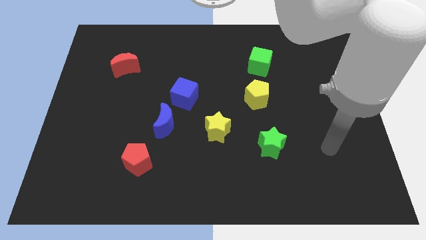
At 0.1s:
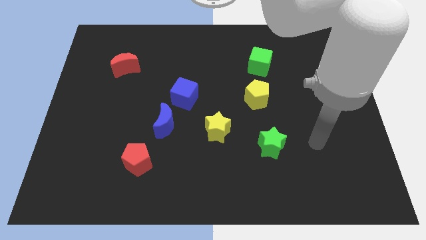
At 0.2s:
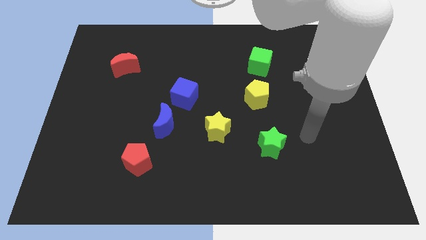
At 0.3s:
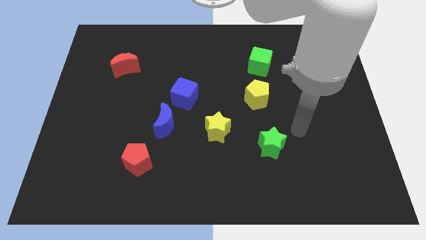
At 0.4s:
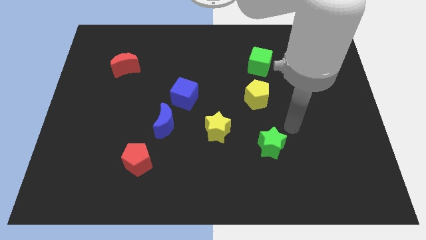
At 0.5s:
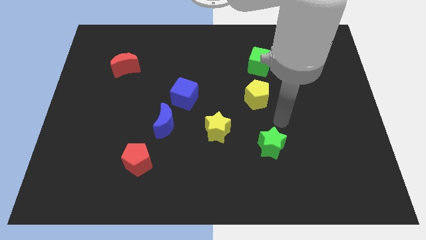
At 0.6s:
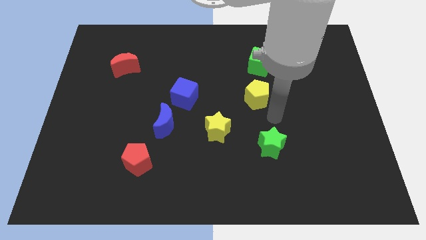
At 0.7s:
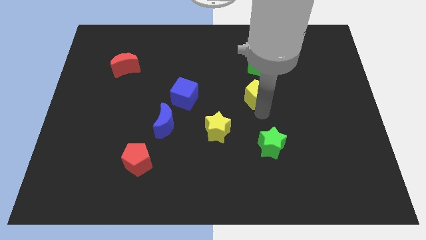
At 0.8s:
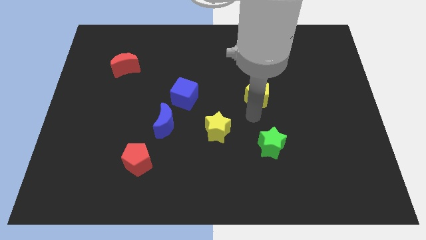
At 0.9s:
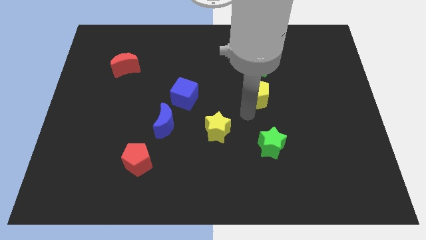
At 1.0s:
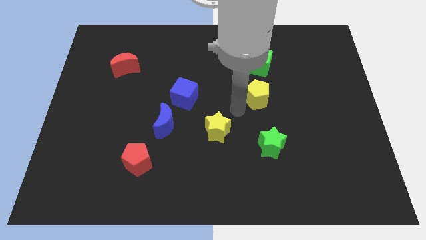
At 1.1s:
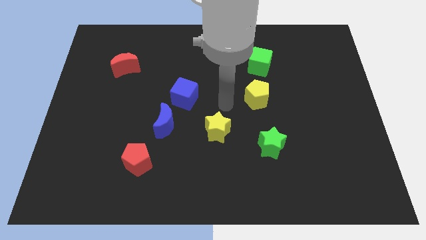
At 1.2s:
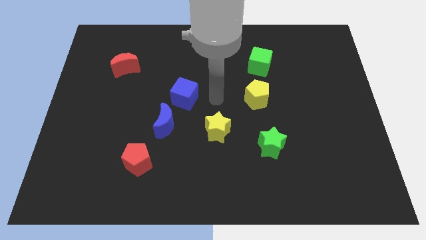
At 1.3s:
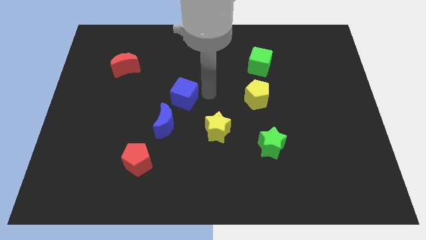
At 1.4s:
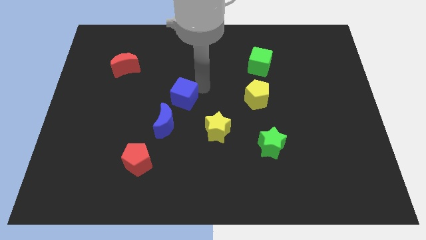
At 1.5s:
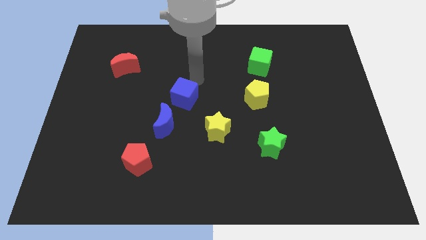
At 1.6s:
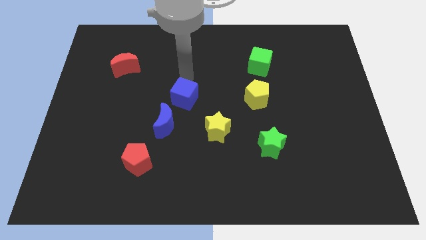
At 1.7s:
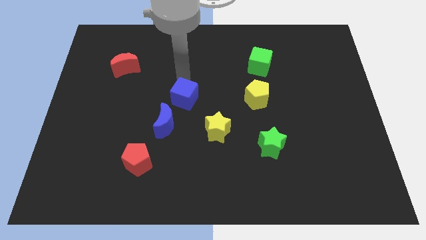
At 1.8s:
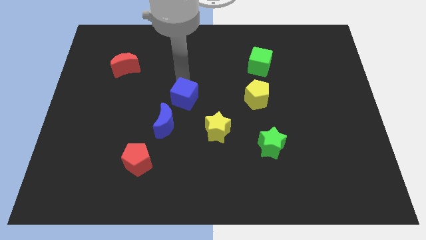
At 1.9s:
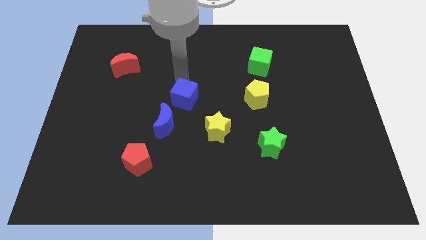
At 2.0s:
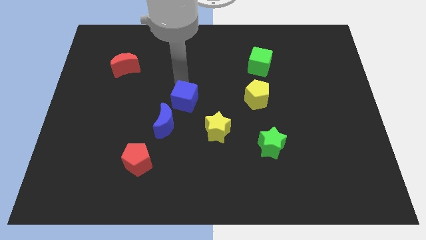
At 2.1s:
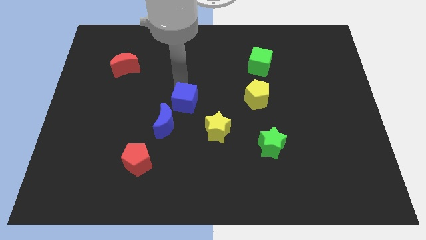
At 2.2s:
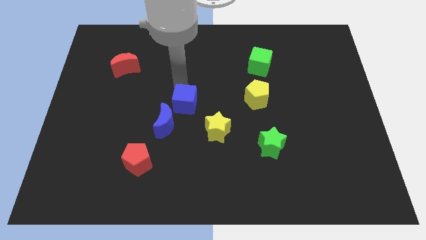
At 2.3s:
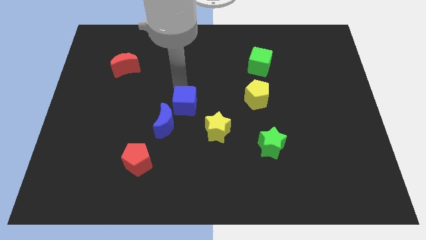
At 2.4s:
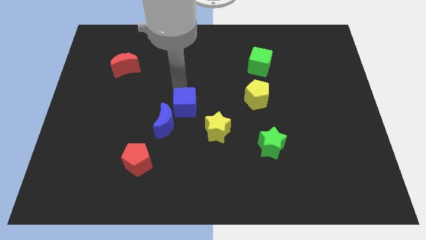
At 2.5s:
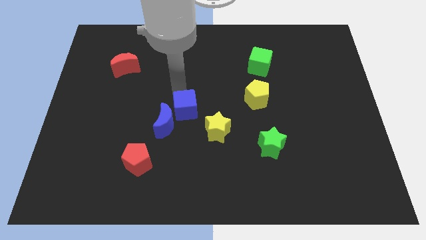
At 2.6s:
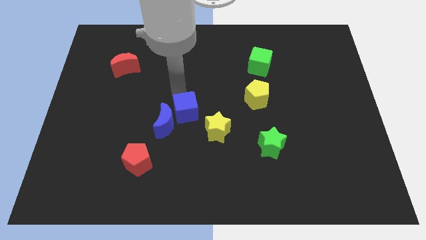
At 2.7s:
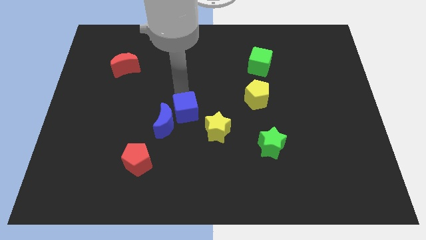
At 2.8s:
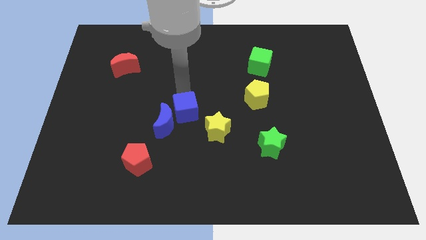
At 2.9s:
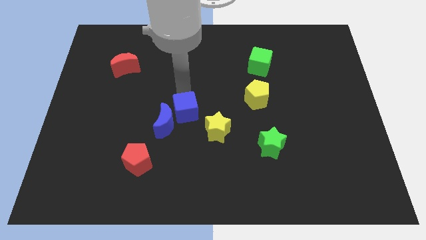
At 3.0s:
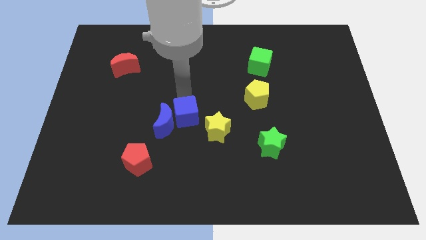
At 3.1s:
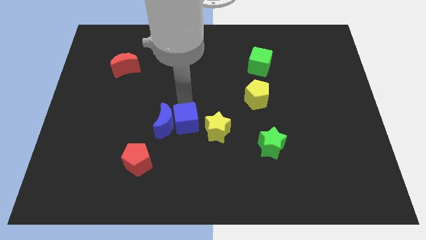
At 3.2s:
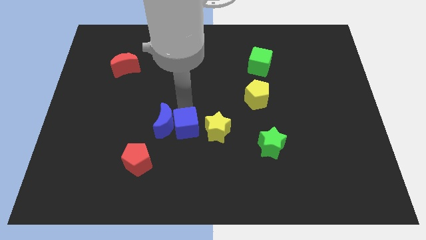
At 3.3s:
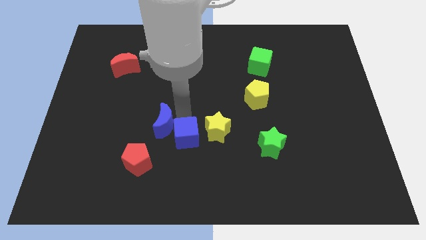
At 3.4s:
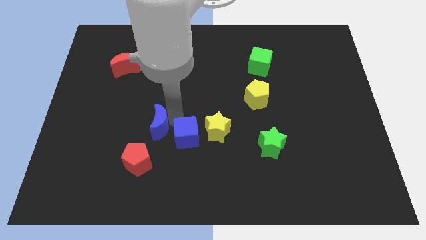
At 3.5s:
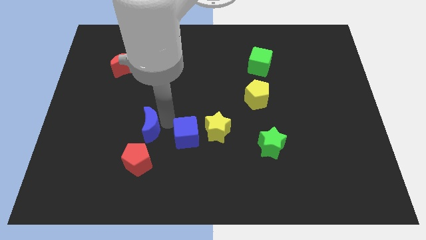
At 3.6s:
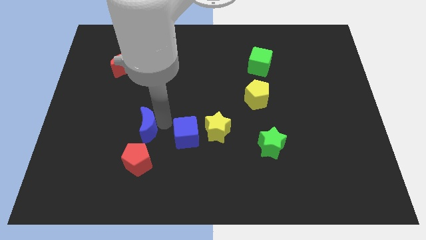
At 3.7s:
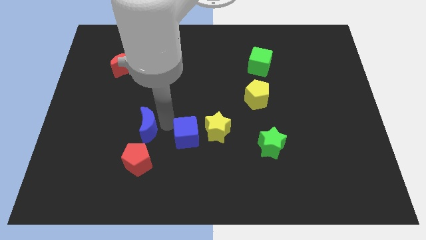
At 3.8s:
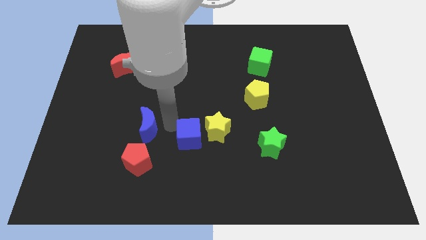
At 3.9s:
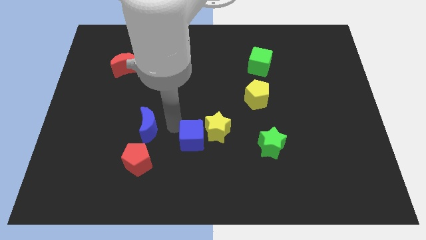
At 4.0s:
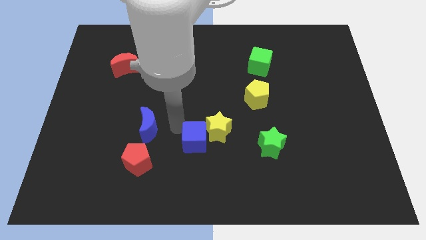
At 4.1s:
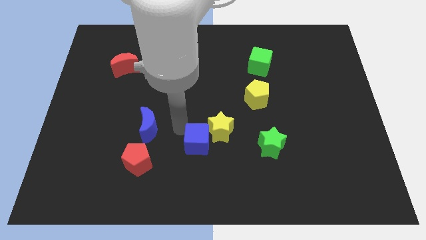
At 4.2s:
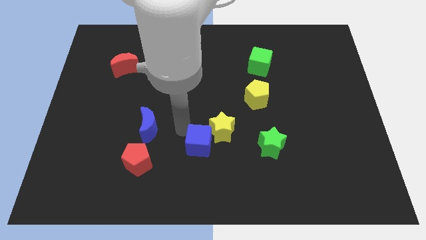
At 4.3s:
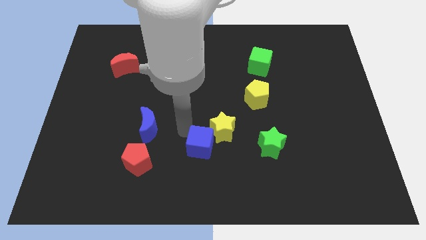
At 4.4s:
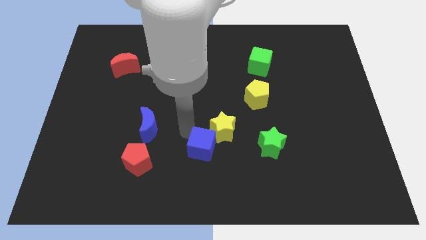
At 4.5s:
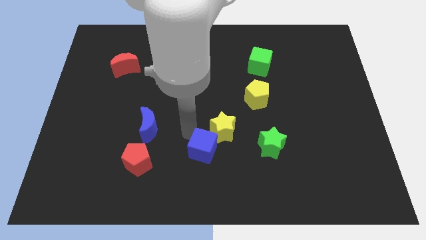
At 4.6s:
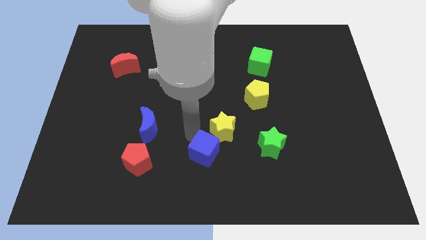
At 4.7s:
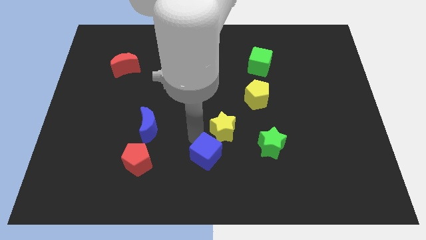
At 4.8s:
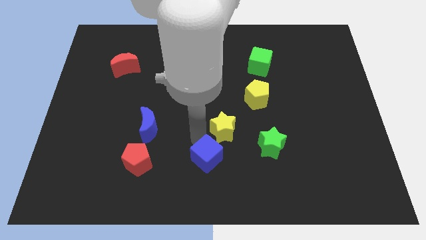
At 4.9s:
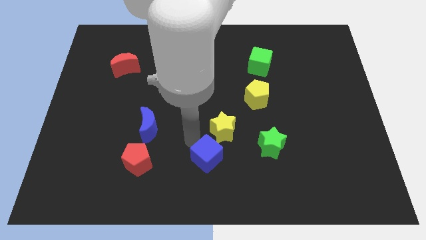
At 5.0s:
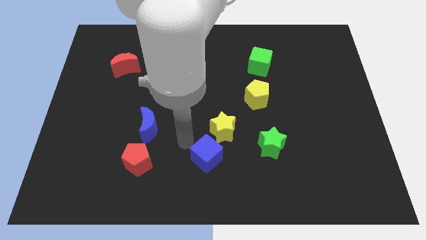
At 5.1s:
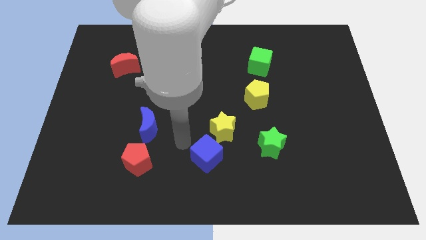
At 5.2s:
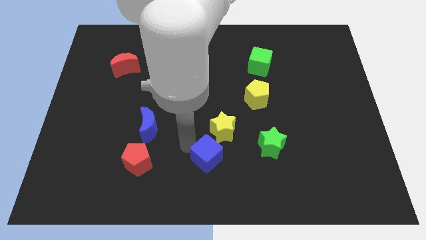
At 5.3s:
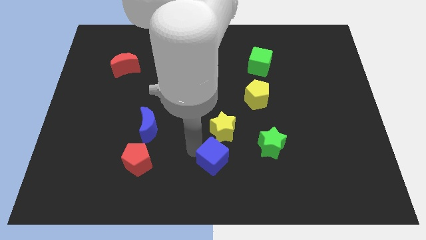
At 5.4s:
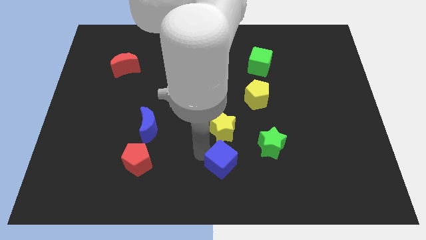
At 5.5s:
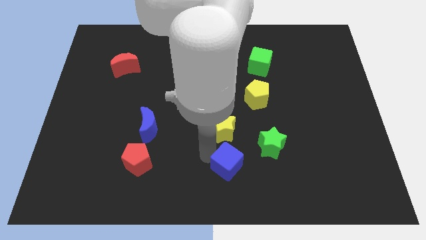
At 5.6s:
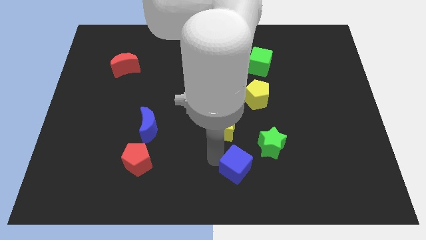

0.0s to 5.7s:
slide the blue cube down and right

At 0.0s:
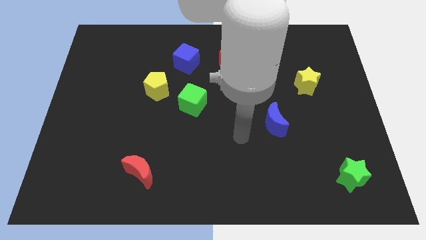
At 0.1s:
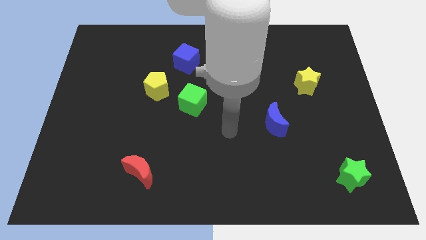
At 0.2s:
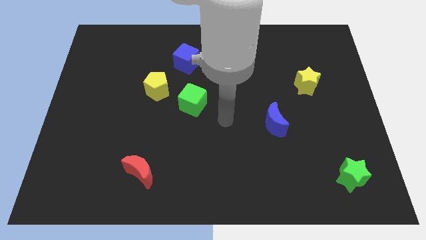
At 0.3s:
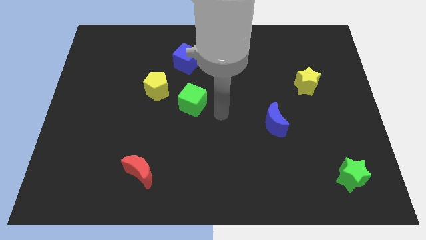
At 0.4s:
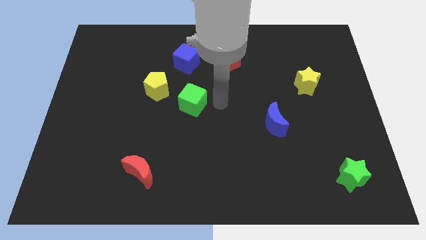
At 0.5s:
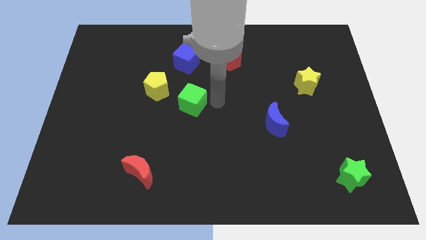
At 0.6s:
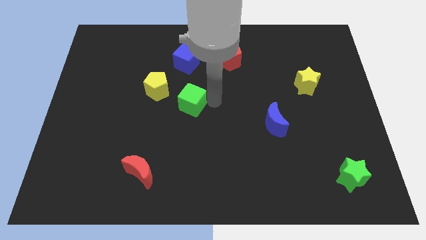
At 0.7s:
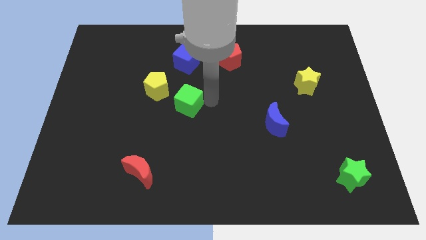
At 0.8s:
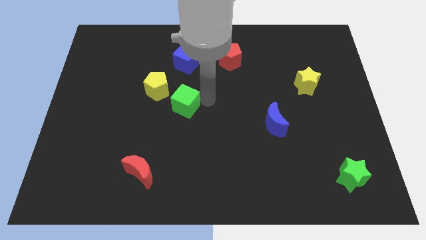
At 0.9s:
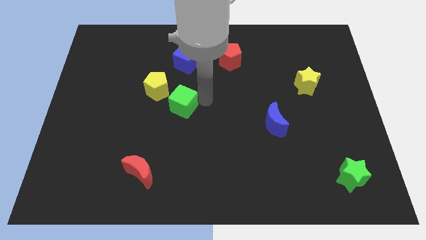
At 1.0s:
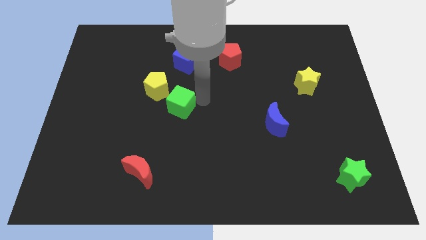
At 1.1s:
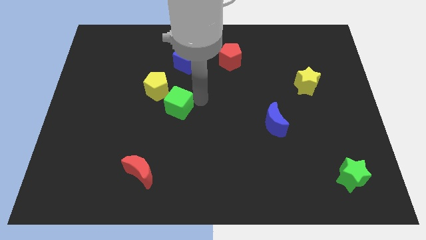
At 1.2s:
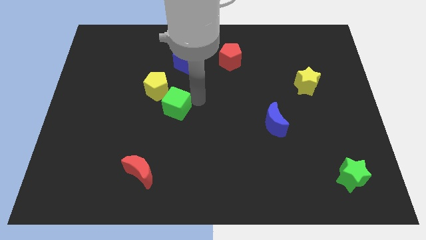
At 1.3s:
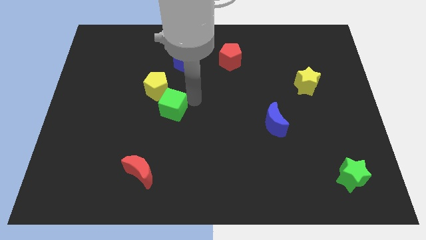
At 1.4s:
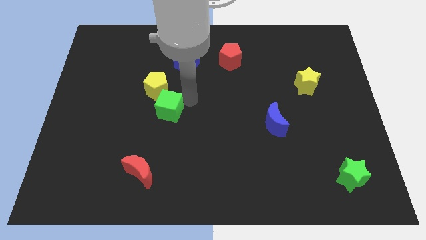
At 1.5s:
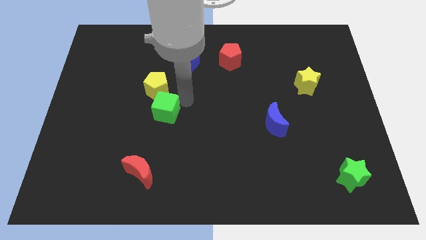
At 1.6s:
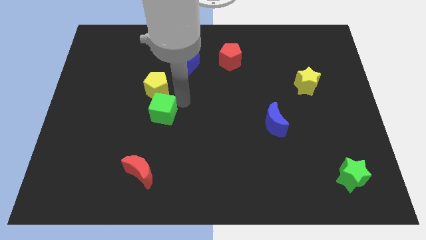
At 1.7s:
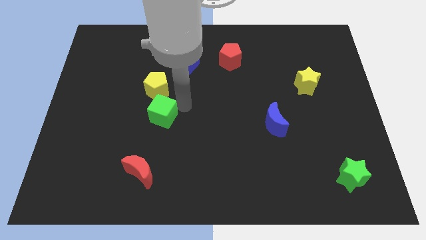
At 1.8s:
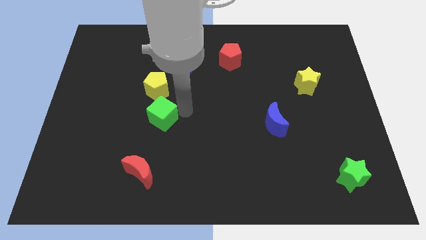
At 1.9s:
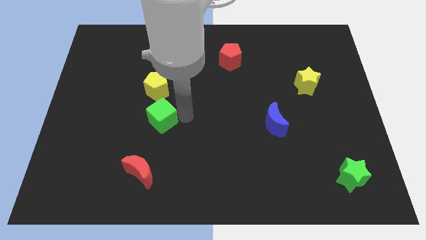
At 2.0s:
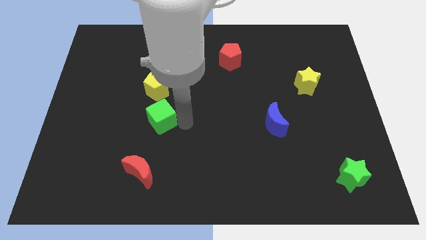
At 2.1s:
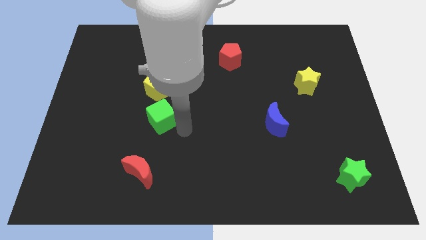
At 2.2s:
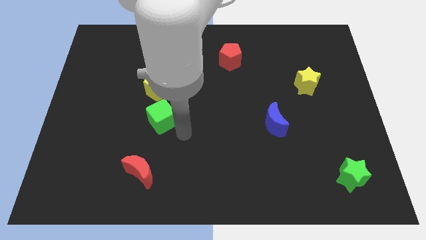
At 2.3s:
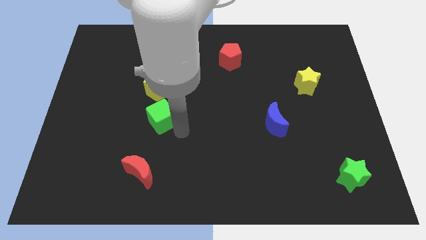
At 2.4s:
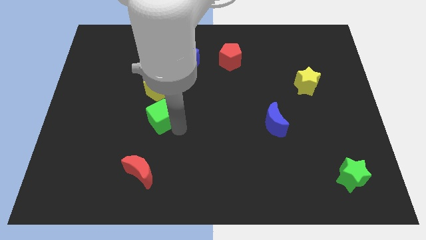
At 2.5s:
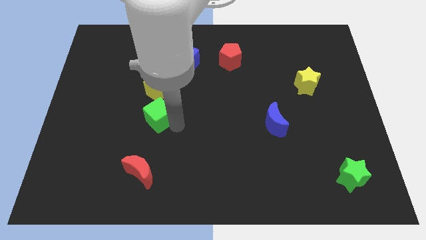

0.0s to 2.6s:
slightly push the green cube left
